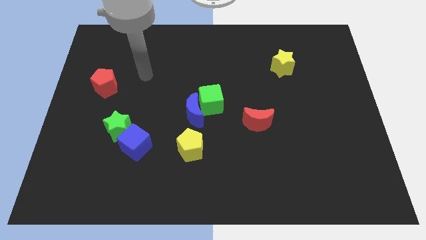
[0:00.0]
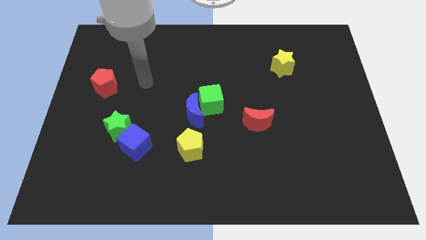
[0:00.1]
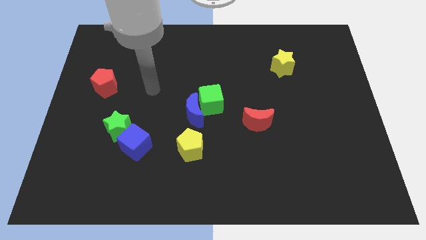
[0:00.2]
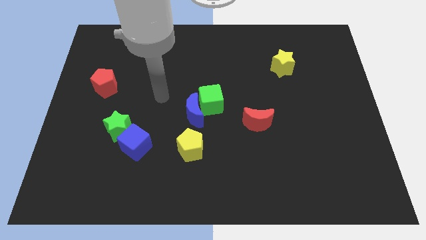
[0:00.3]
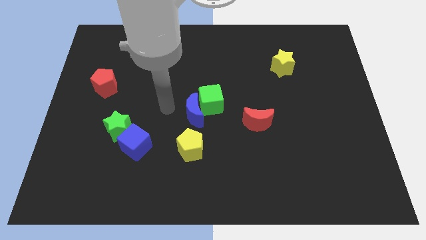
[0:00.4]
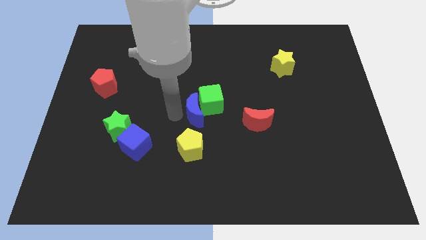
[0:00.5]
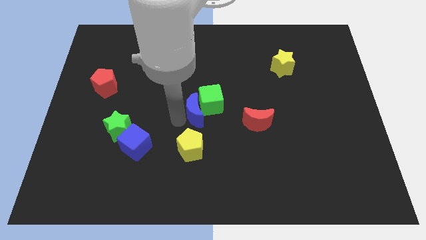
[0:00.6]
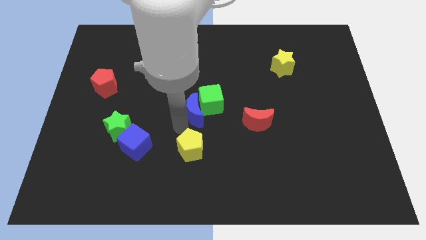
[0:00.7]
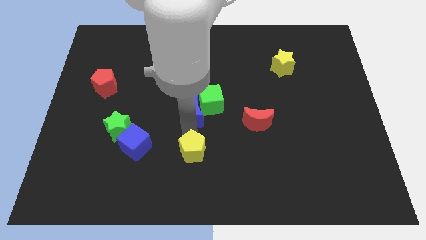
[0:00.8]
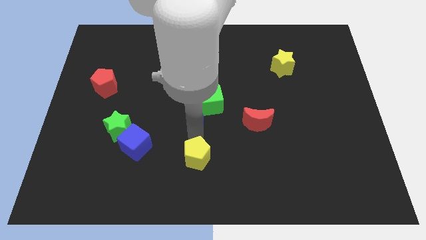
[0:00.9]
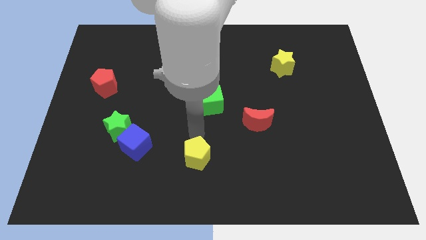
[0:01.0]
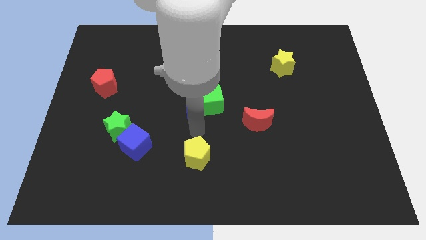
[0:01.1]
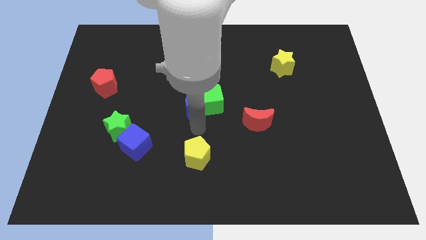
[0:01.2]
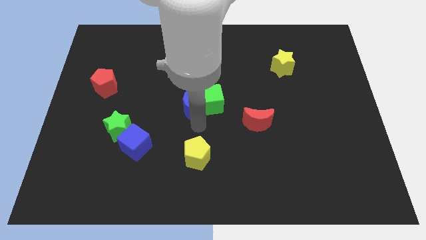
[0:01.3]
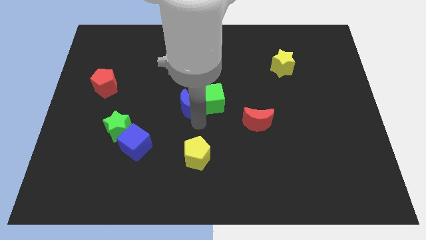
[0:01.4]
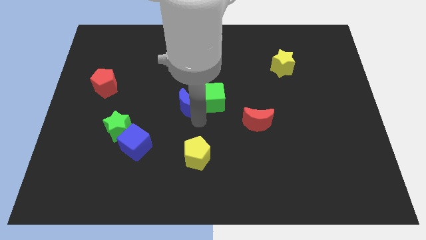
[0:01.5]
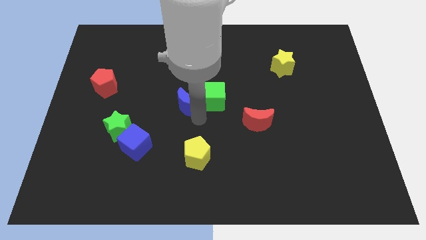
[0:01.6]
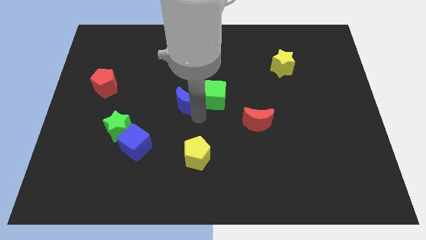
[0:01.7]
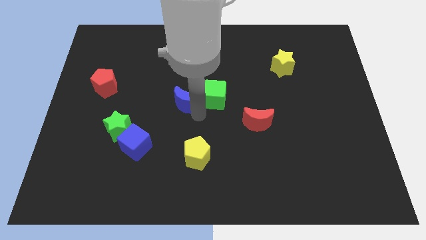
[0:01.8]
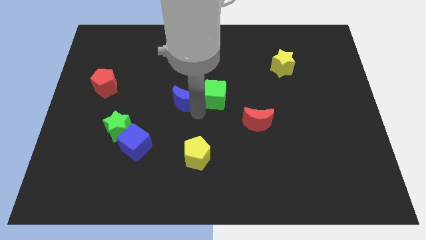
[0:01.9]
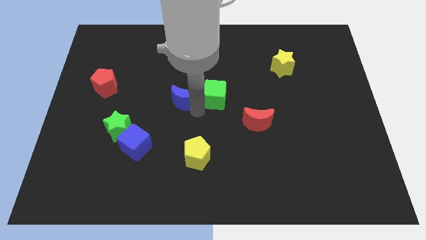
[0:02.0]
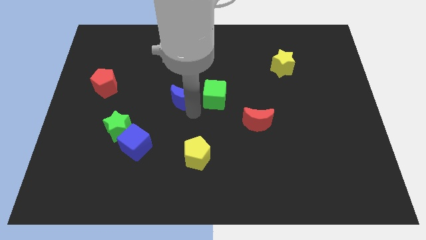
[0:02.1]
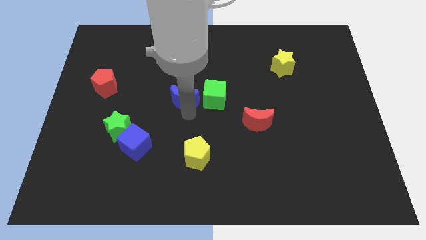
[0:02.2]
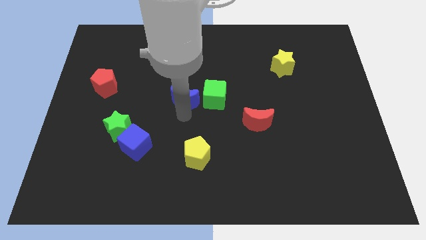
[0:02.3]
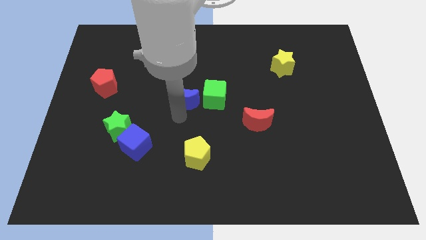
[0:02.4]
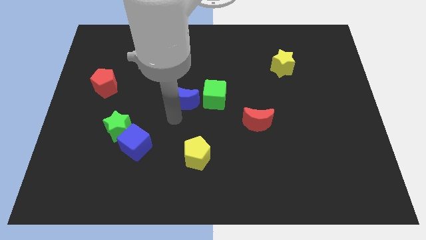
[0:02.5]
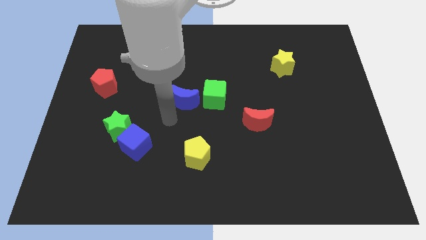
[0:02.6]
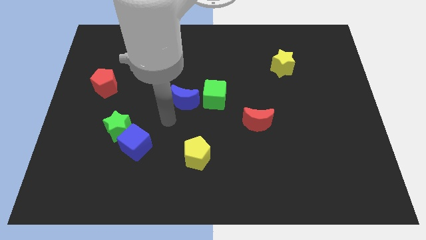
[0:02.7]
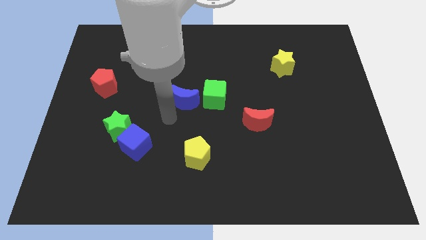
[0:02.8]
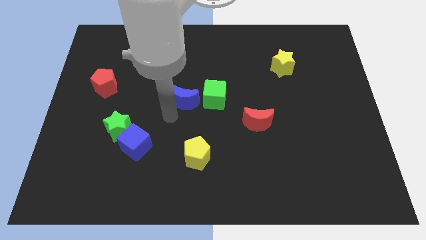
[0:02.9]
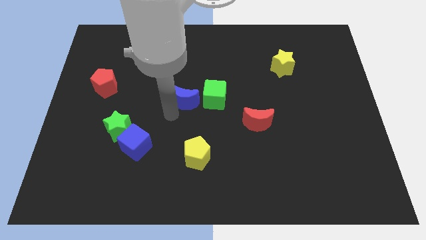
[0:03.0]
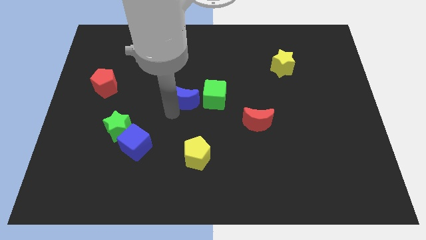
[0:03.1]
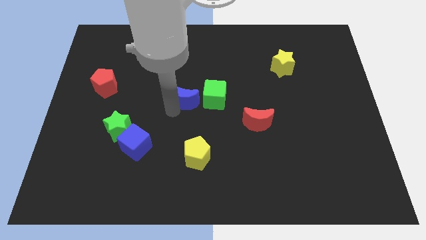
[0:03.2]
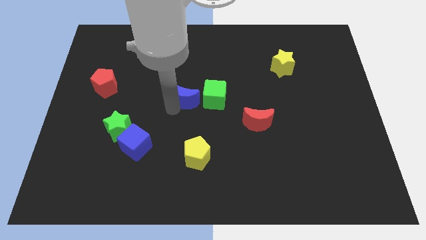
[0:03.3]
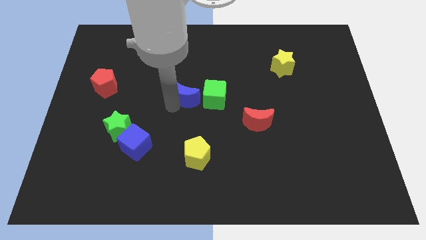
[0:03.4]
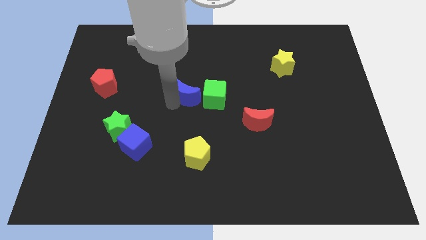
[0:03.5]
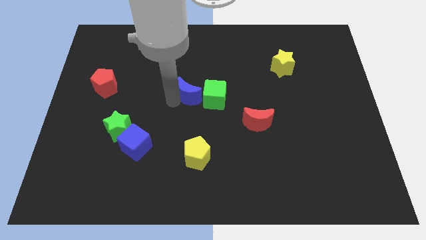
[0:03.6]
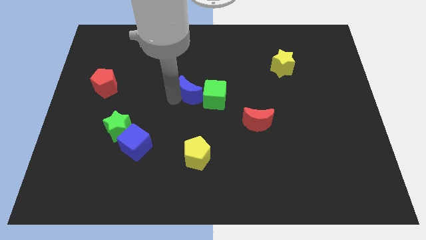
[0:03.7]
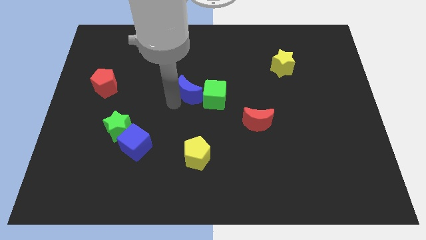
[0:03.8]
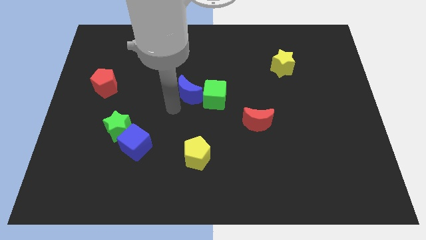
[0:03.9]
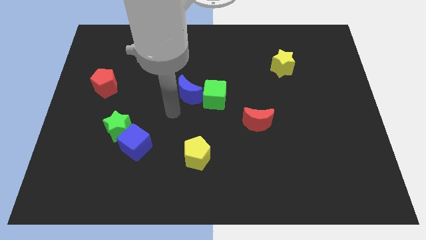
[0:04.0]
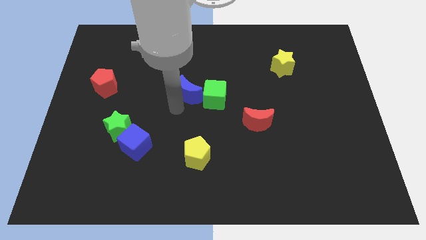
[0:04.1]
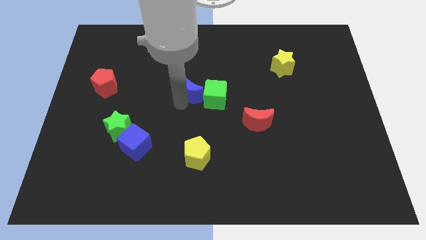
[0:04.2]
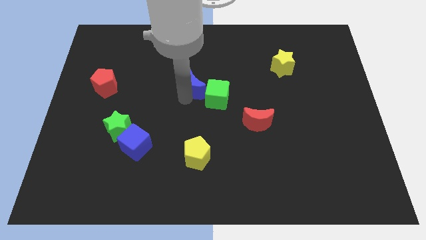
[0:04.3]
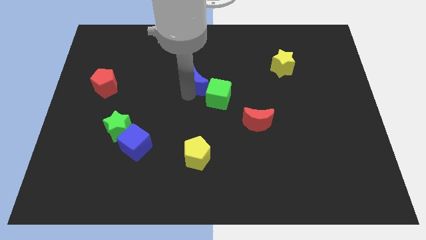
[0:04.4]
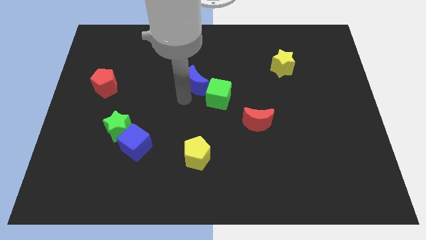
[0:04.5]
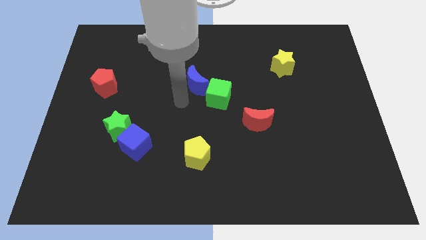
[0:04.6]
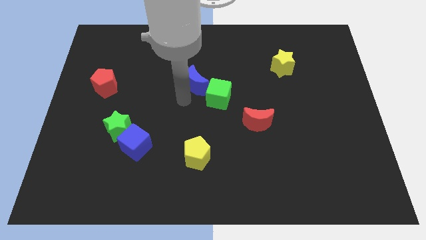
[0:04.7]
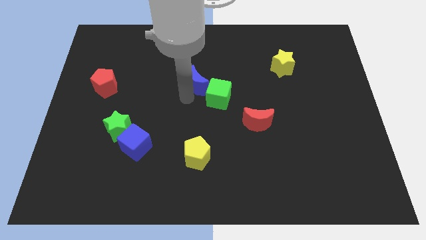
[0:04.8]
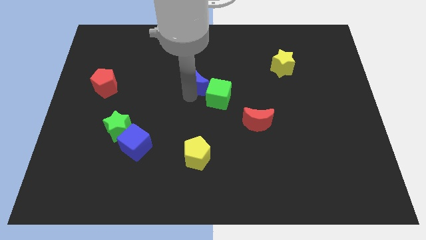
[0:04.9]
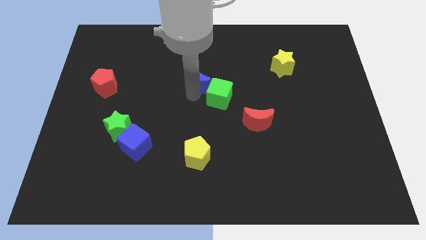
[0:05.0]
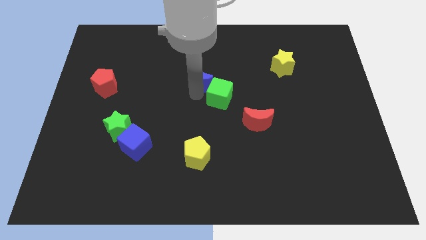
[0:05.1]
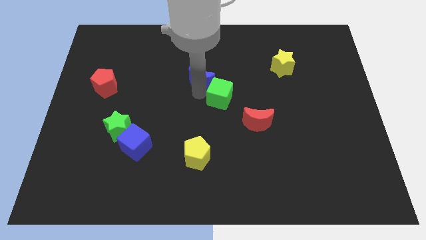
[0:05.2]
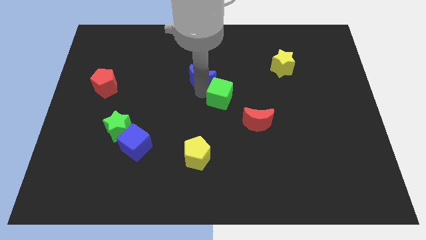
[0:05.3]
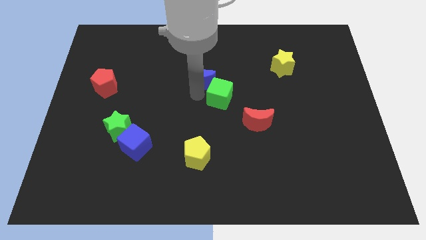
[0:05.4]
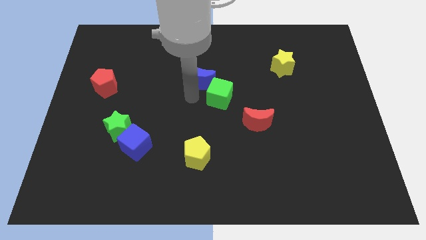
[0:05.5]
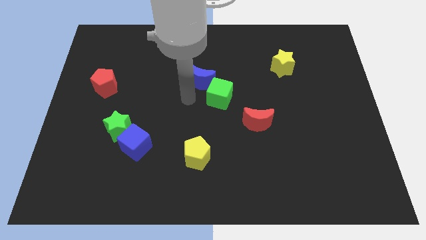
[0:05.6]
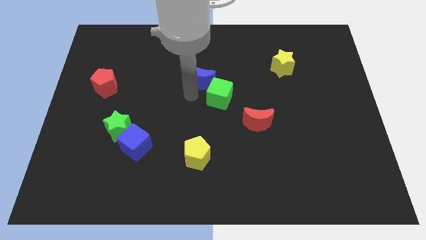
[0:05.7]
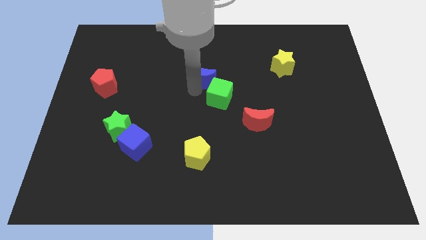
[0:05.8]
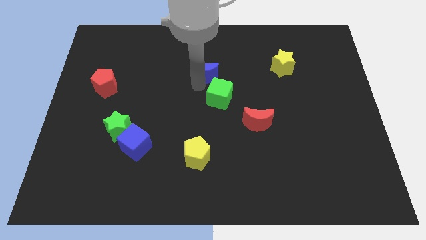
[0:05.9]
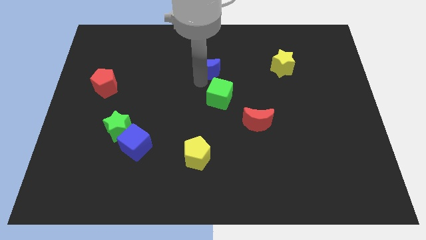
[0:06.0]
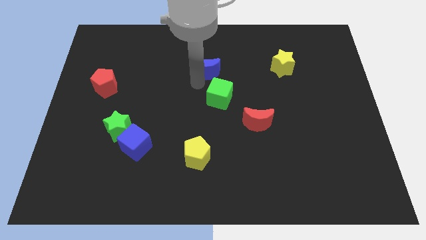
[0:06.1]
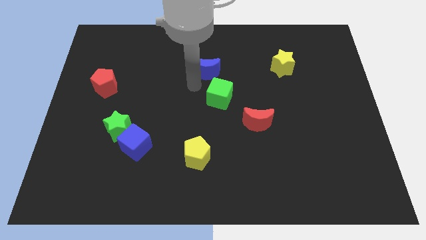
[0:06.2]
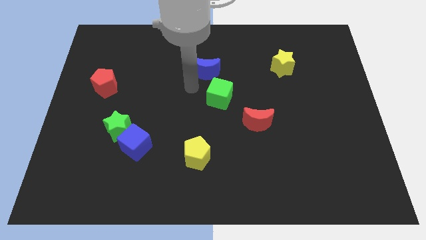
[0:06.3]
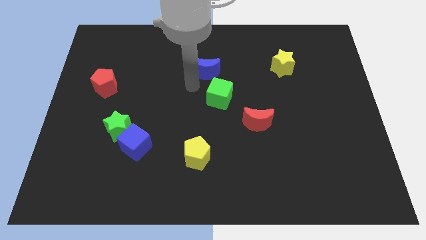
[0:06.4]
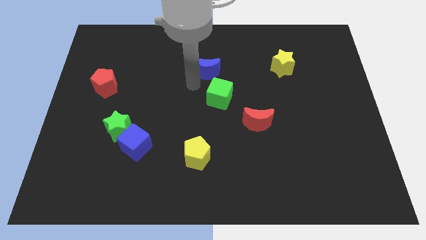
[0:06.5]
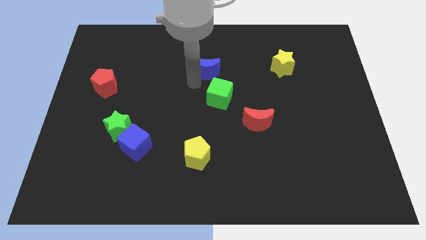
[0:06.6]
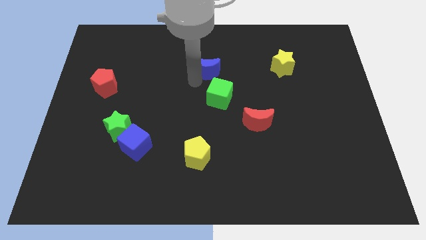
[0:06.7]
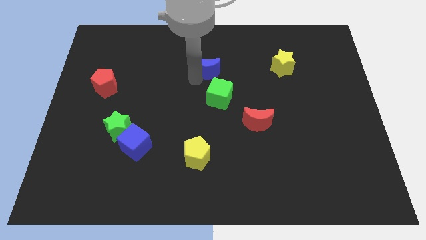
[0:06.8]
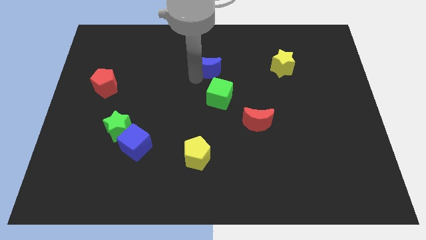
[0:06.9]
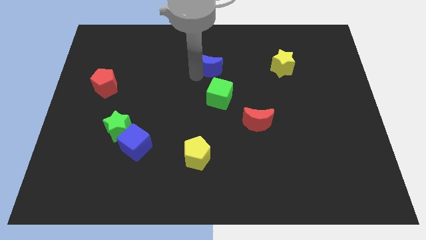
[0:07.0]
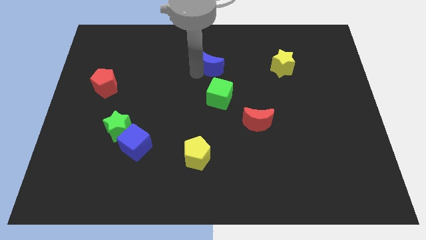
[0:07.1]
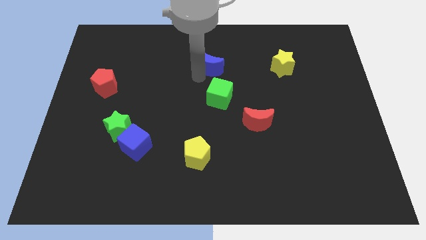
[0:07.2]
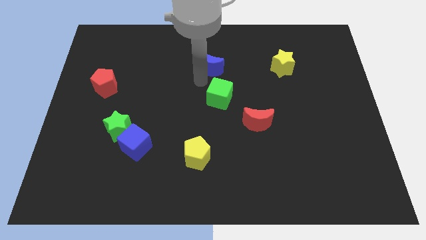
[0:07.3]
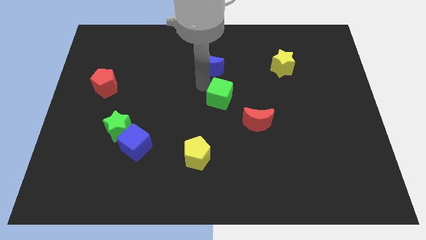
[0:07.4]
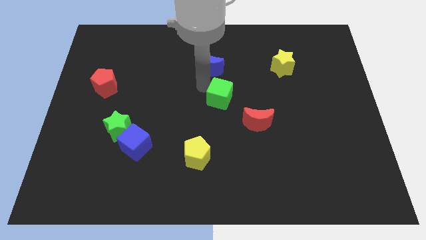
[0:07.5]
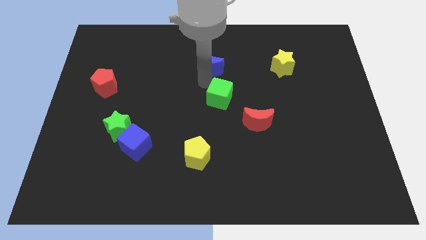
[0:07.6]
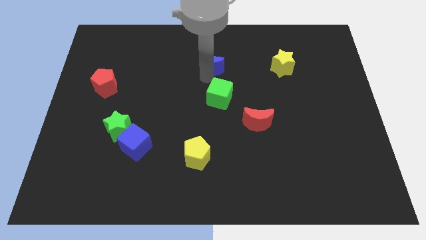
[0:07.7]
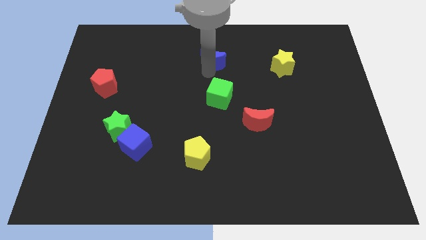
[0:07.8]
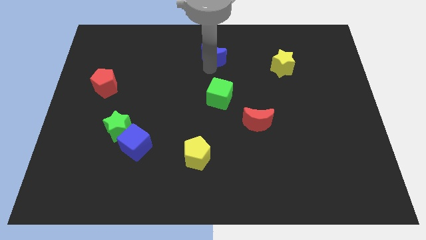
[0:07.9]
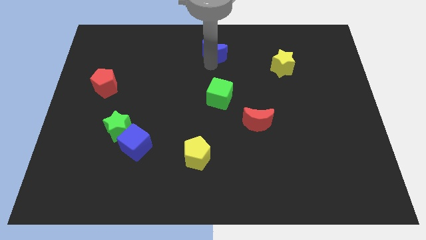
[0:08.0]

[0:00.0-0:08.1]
put the blue moon to the top
